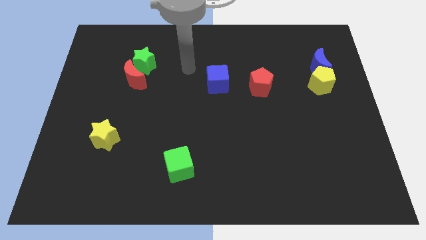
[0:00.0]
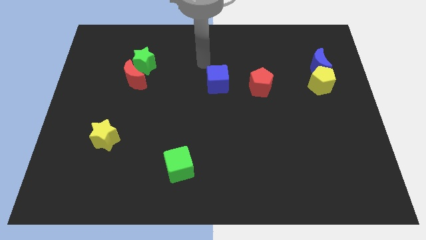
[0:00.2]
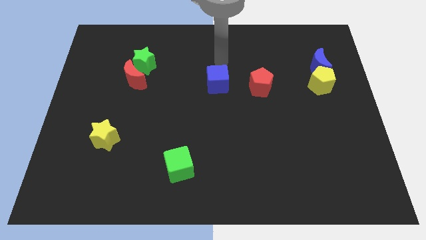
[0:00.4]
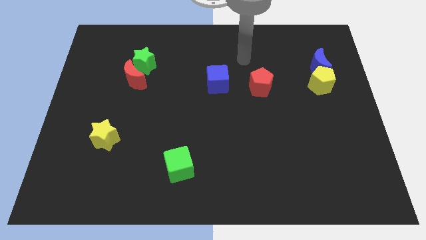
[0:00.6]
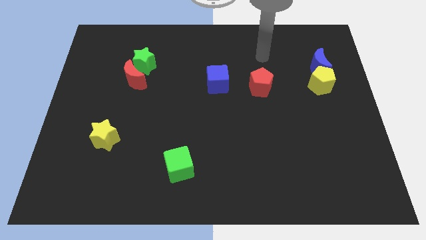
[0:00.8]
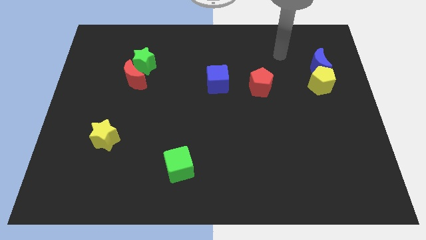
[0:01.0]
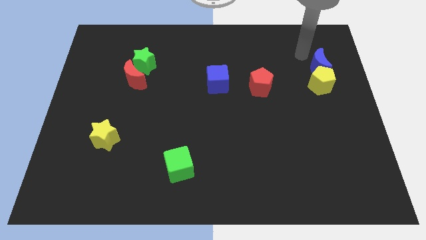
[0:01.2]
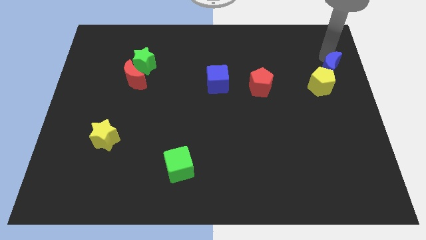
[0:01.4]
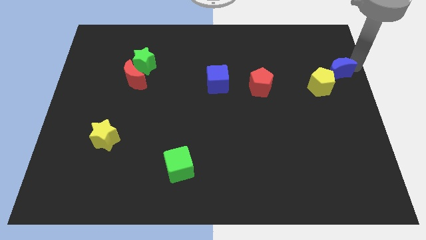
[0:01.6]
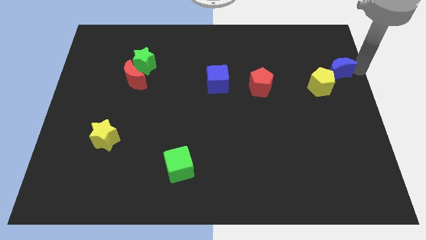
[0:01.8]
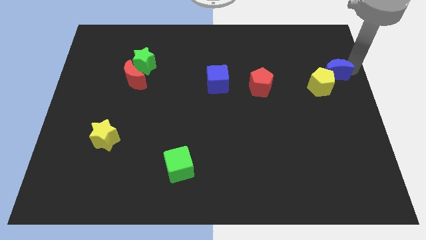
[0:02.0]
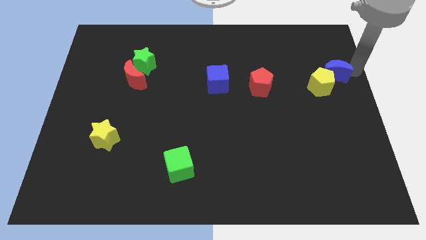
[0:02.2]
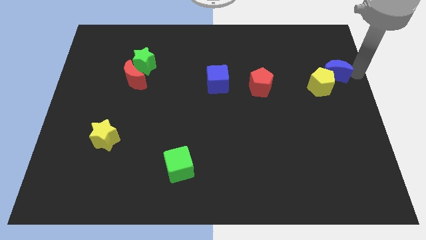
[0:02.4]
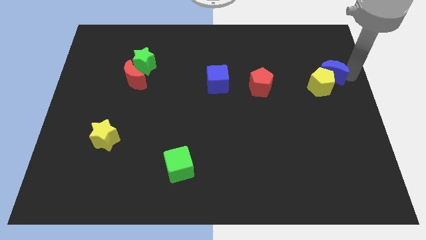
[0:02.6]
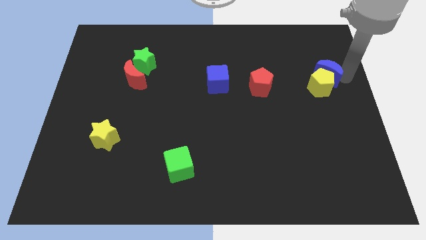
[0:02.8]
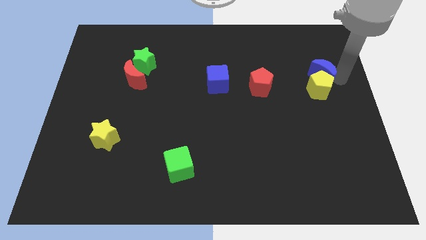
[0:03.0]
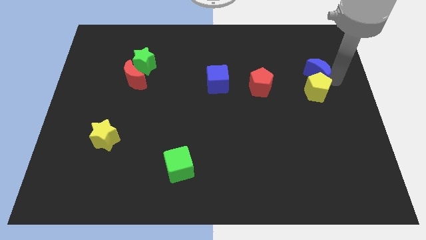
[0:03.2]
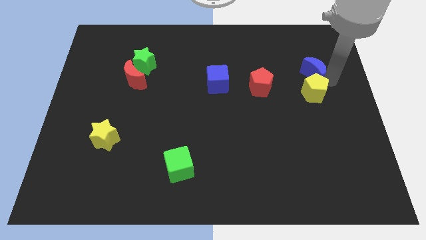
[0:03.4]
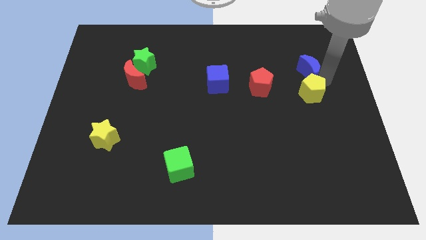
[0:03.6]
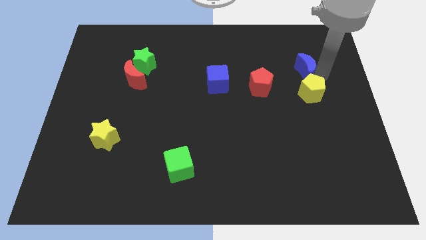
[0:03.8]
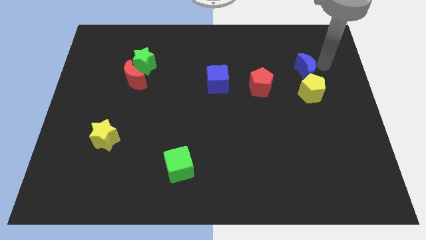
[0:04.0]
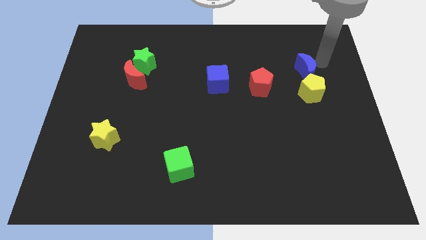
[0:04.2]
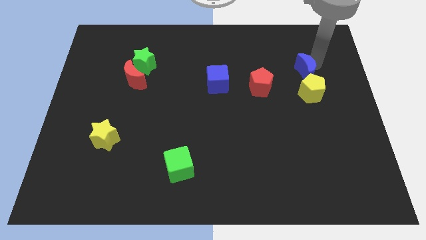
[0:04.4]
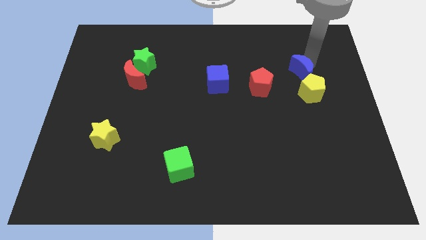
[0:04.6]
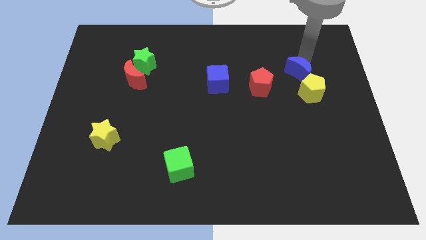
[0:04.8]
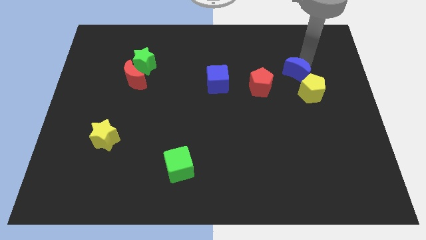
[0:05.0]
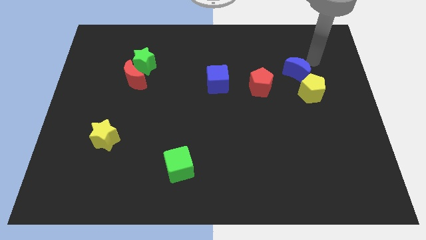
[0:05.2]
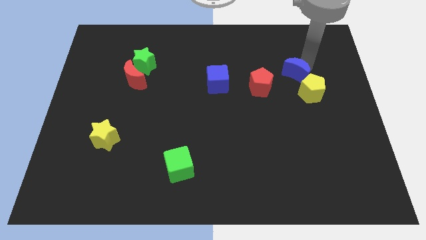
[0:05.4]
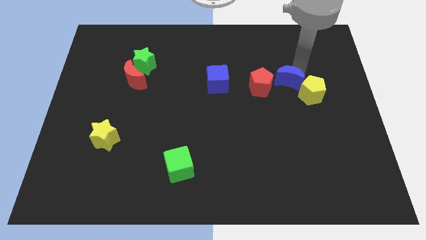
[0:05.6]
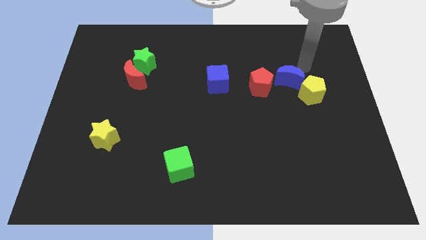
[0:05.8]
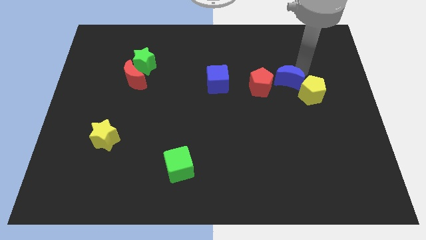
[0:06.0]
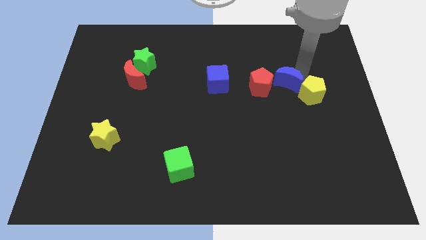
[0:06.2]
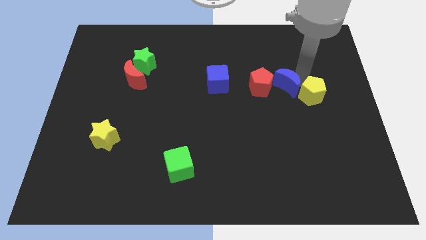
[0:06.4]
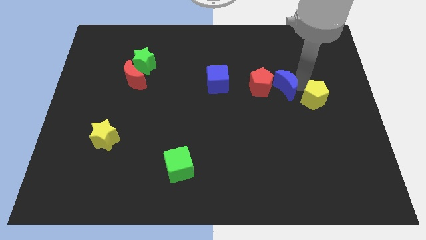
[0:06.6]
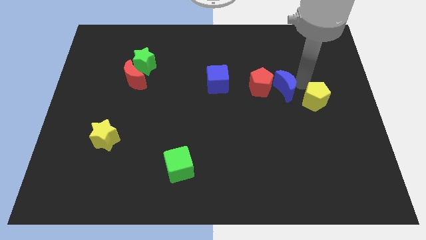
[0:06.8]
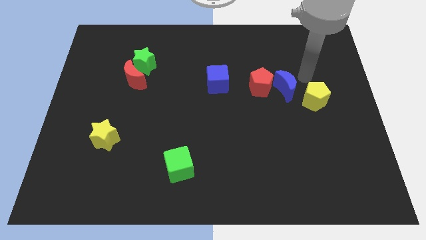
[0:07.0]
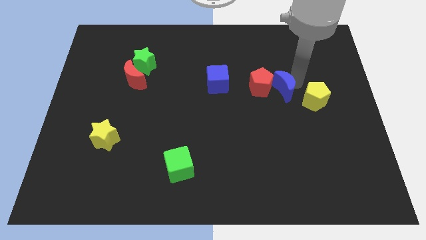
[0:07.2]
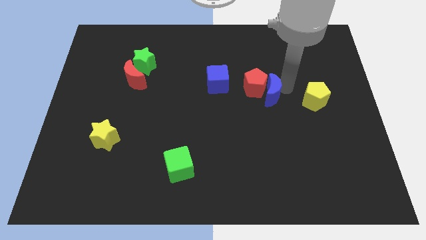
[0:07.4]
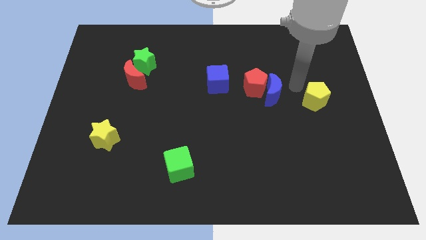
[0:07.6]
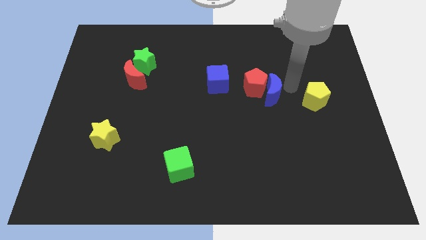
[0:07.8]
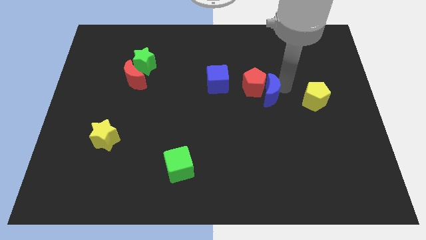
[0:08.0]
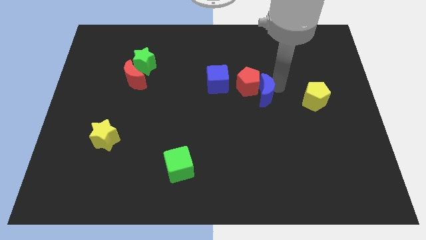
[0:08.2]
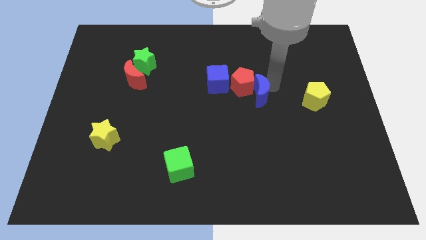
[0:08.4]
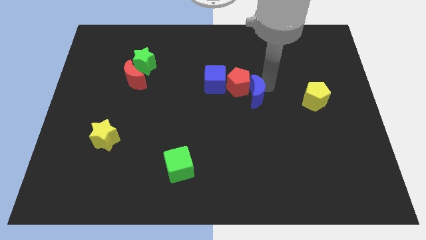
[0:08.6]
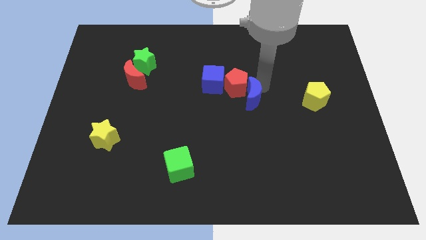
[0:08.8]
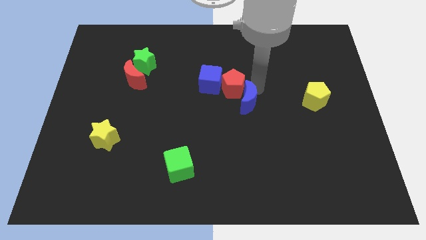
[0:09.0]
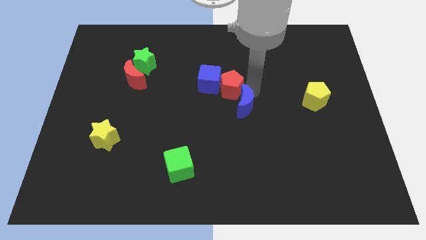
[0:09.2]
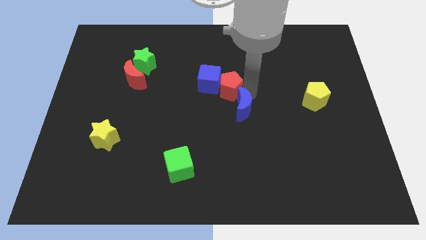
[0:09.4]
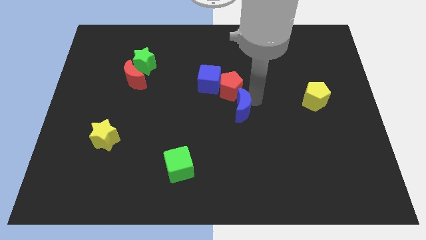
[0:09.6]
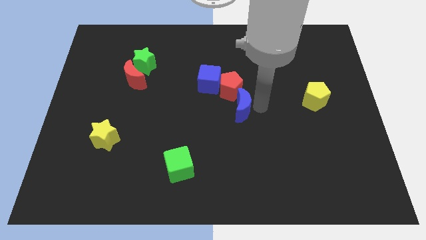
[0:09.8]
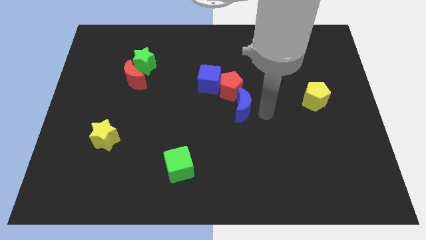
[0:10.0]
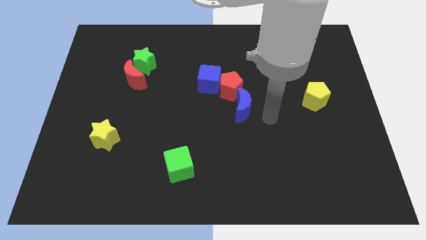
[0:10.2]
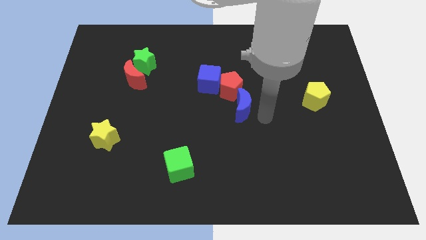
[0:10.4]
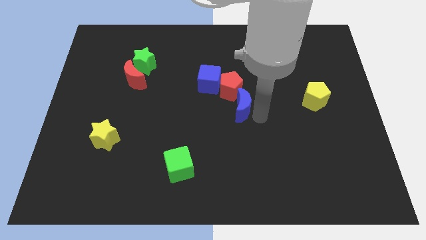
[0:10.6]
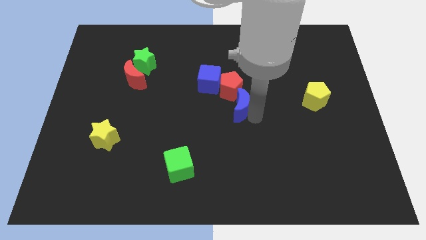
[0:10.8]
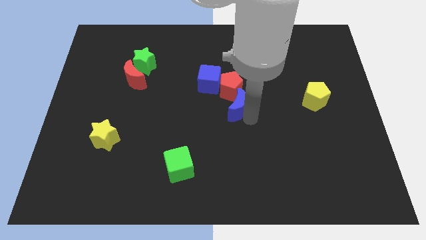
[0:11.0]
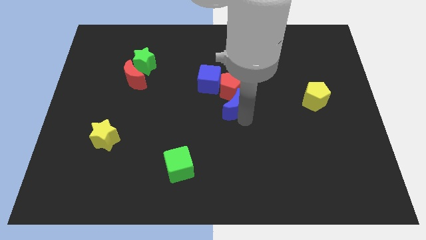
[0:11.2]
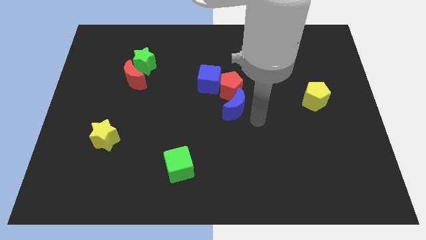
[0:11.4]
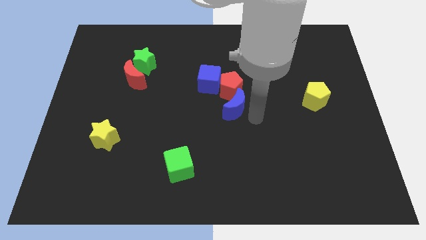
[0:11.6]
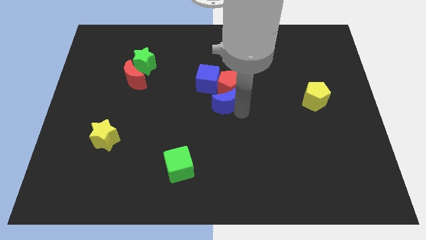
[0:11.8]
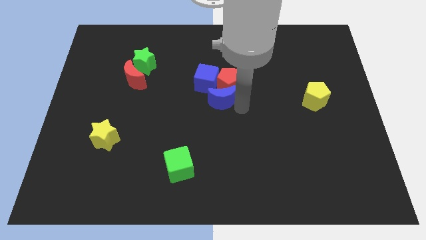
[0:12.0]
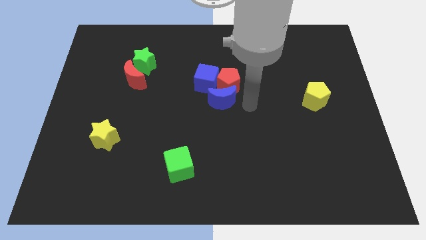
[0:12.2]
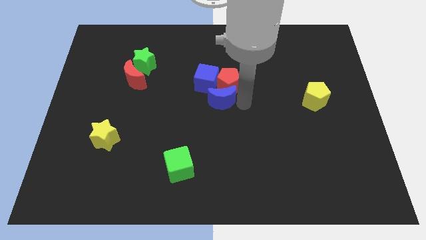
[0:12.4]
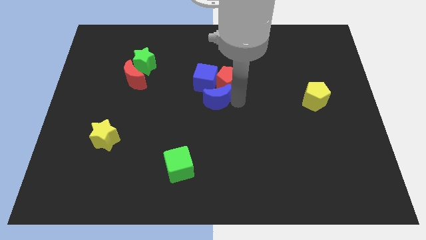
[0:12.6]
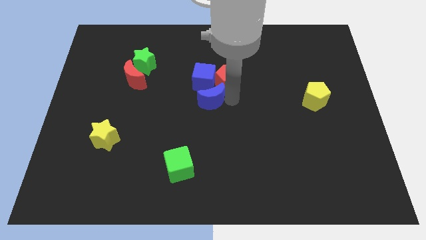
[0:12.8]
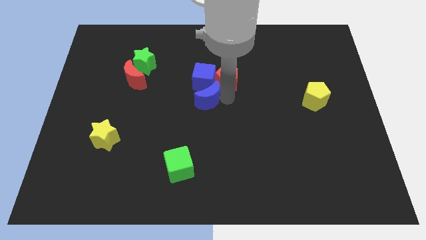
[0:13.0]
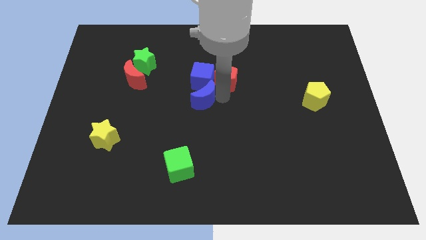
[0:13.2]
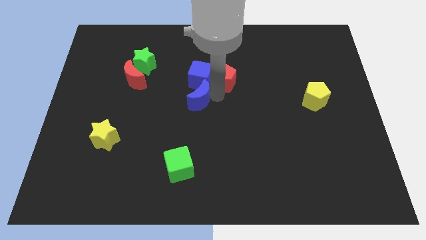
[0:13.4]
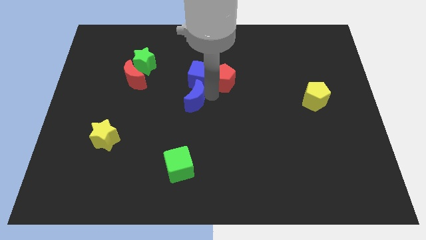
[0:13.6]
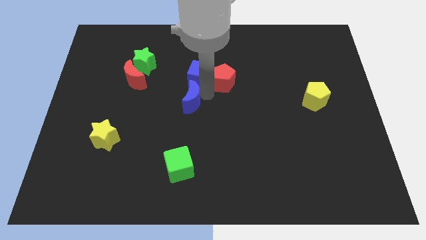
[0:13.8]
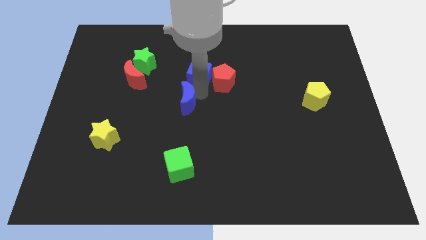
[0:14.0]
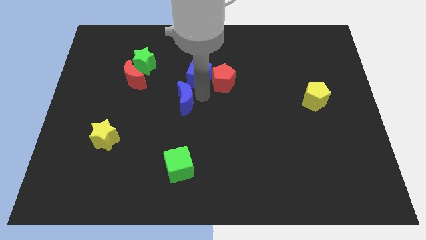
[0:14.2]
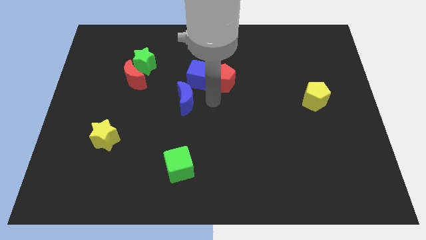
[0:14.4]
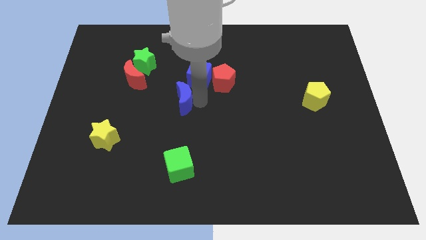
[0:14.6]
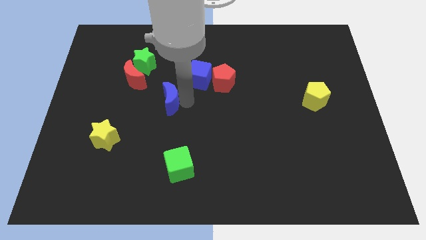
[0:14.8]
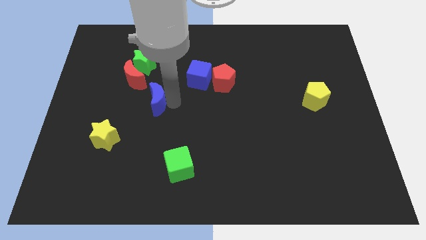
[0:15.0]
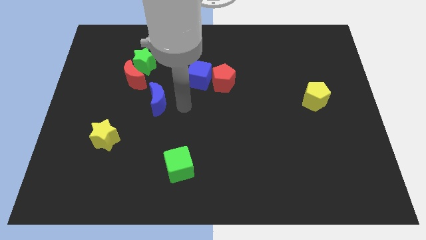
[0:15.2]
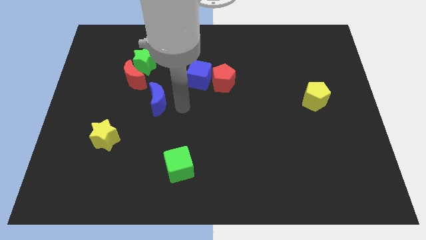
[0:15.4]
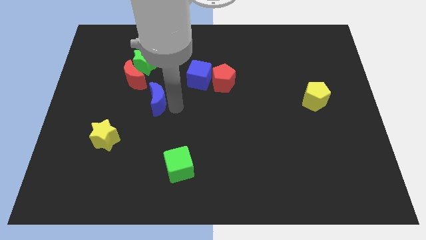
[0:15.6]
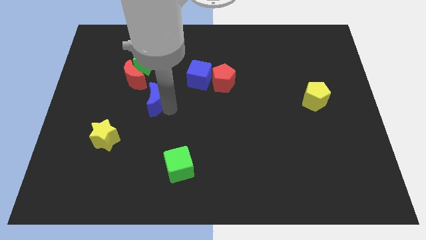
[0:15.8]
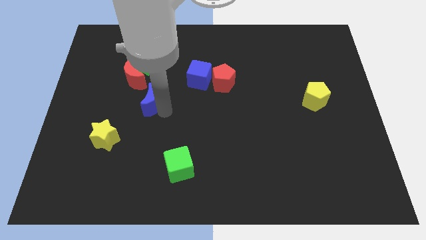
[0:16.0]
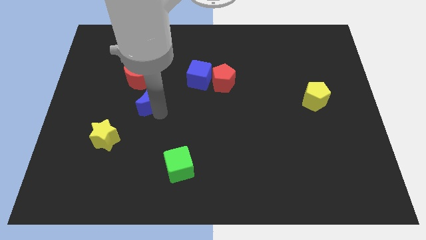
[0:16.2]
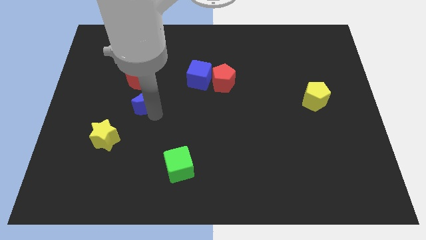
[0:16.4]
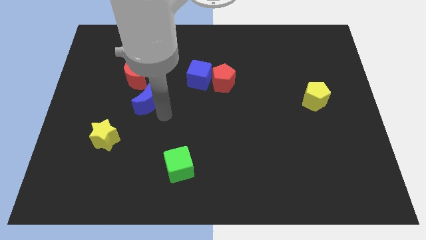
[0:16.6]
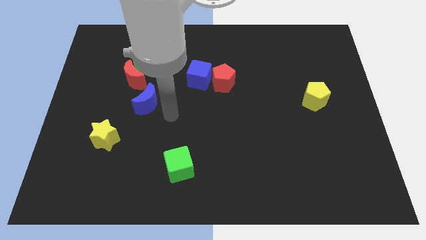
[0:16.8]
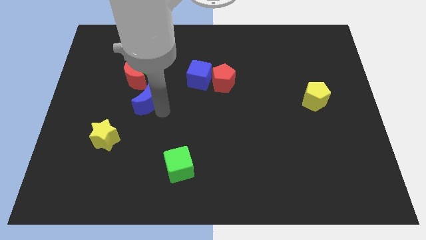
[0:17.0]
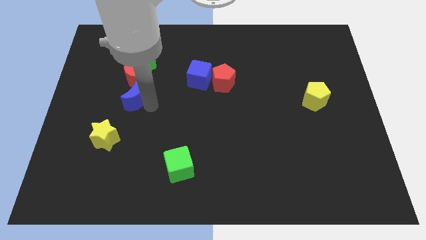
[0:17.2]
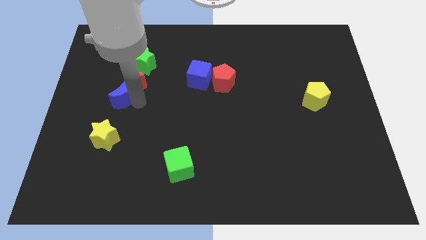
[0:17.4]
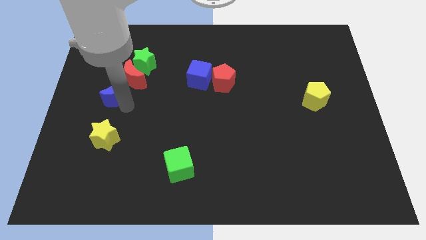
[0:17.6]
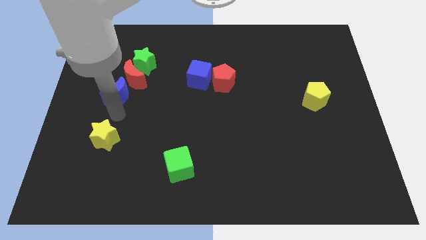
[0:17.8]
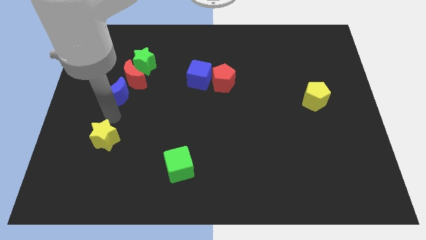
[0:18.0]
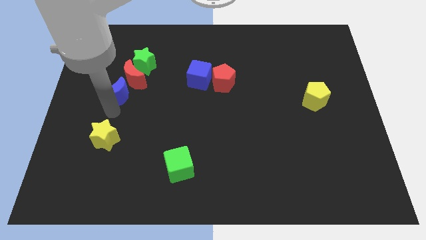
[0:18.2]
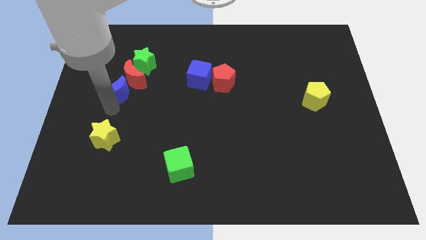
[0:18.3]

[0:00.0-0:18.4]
move the blue moon to the bottom left of the green star
